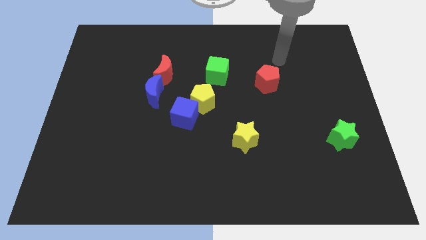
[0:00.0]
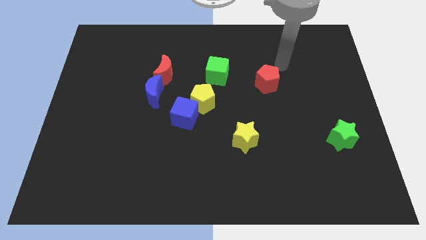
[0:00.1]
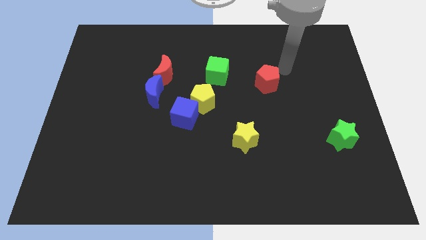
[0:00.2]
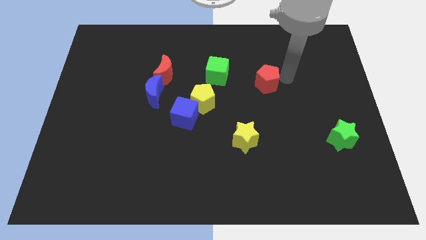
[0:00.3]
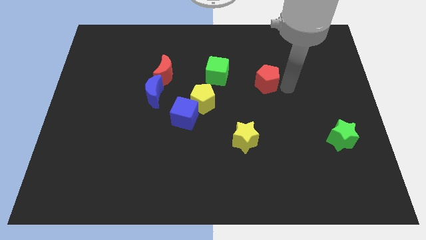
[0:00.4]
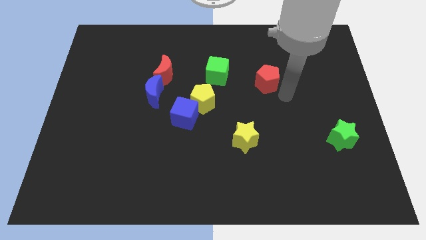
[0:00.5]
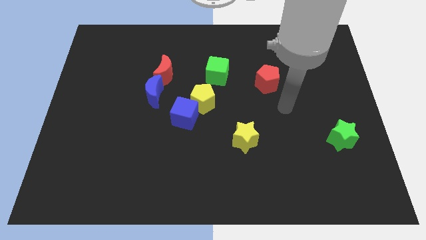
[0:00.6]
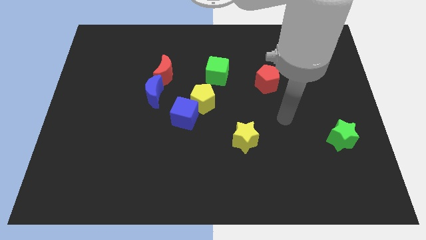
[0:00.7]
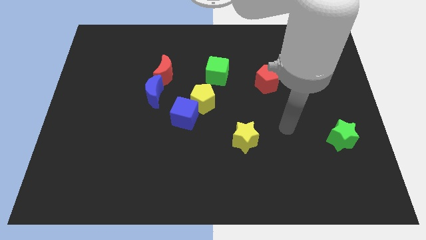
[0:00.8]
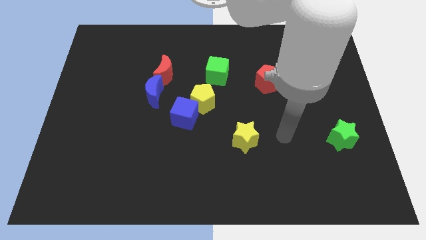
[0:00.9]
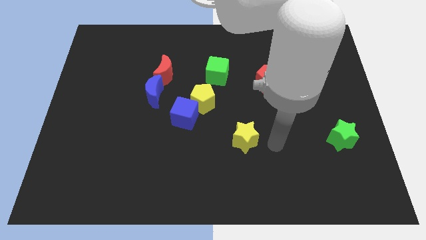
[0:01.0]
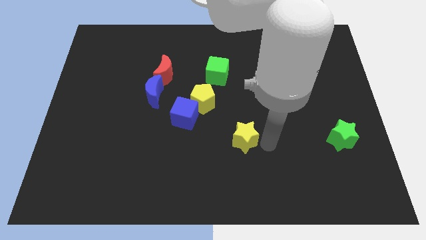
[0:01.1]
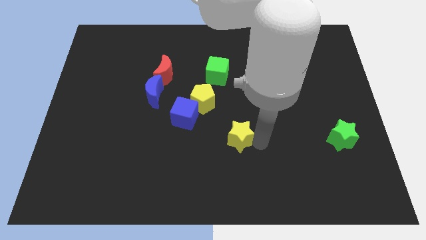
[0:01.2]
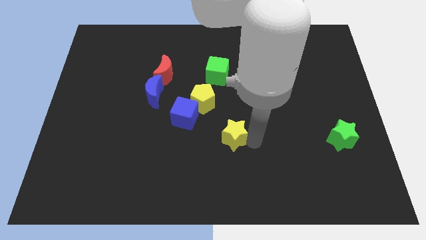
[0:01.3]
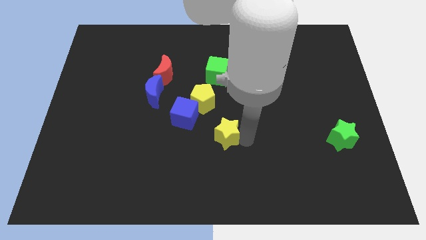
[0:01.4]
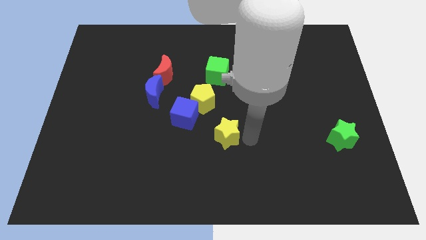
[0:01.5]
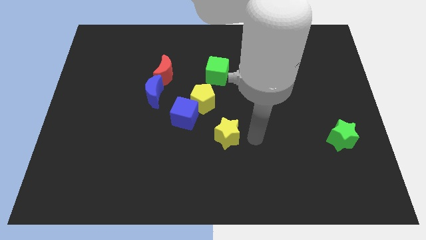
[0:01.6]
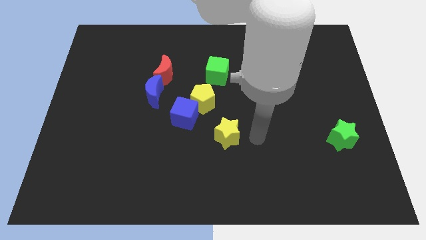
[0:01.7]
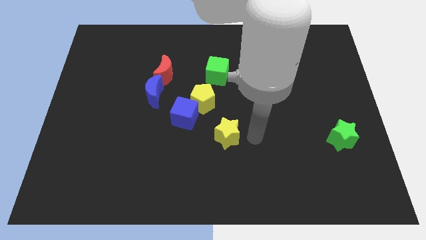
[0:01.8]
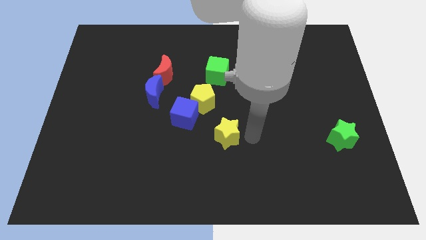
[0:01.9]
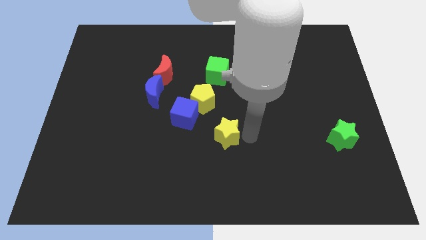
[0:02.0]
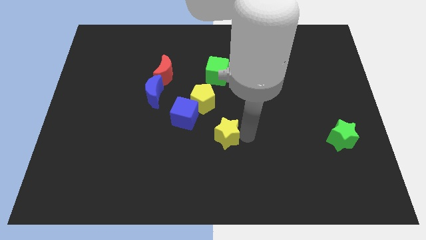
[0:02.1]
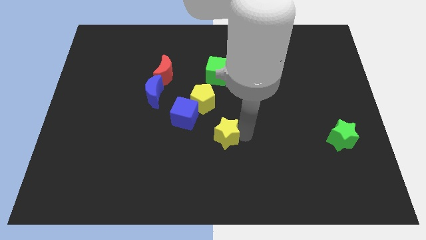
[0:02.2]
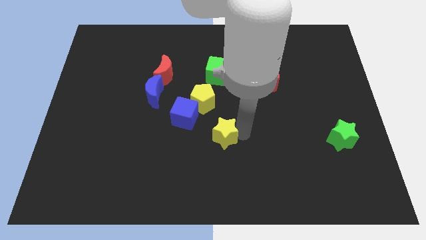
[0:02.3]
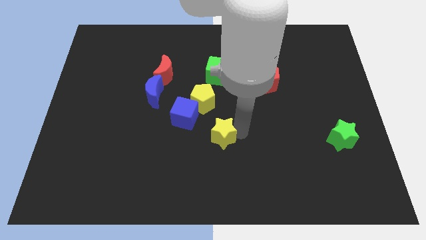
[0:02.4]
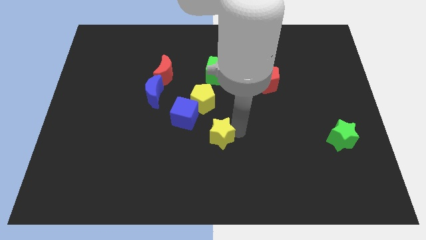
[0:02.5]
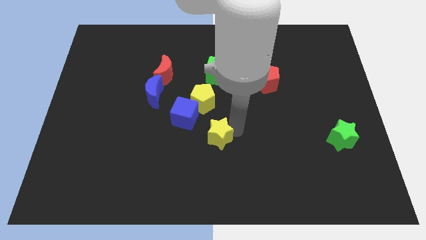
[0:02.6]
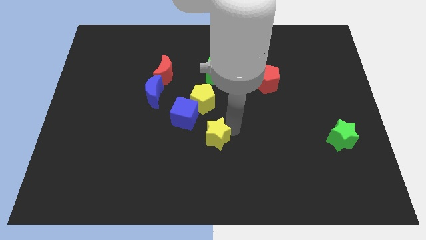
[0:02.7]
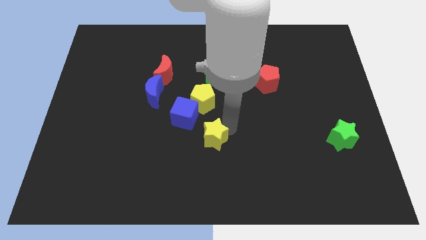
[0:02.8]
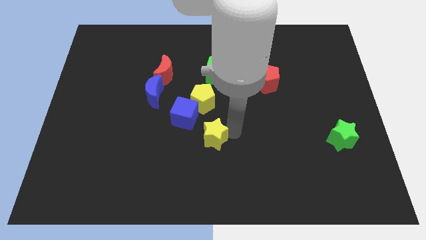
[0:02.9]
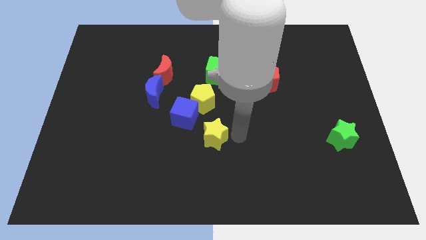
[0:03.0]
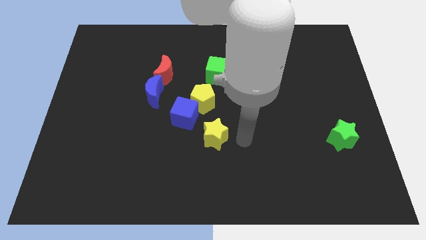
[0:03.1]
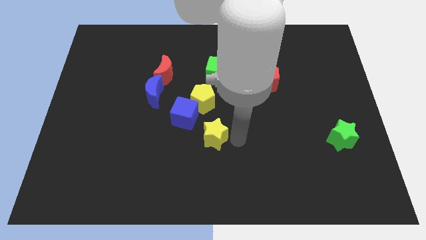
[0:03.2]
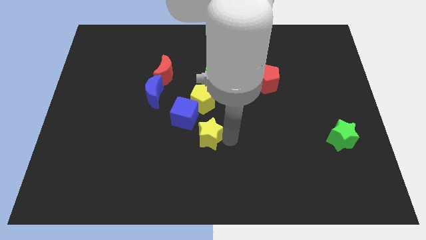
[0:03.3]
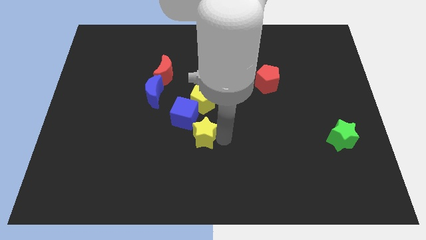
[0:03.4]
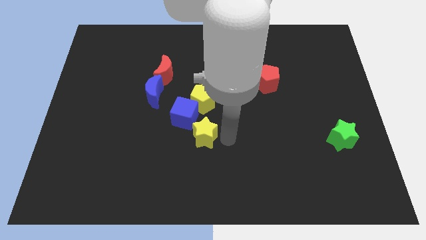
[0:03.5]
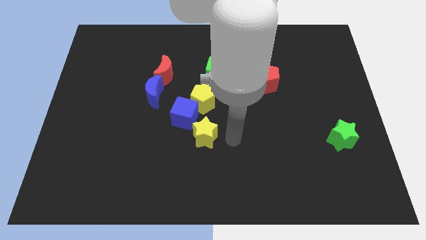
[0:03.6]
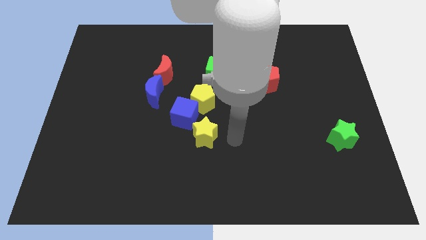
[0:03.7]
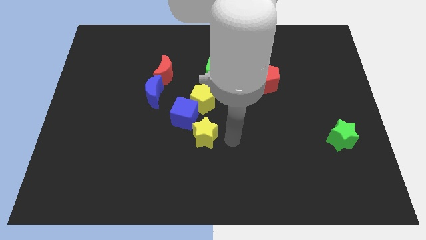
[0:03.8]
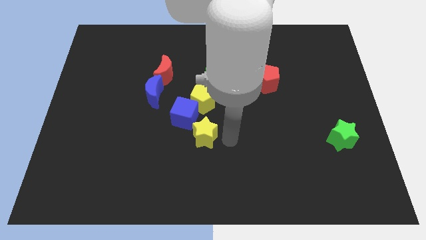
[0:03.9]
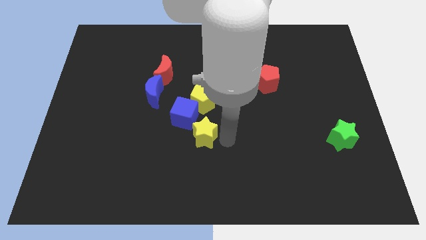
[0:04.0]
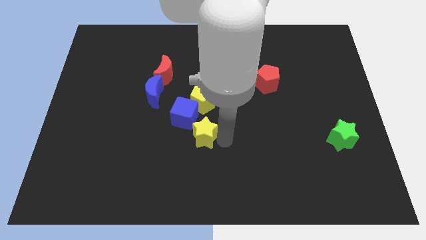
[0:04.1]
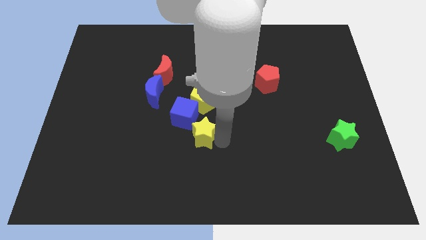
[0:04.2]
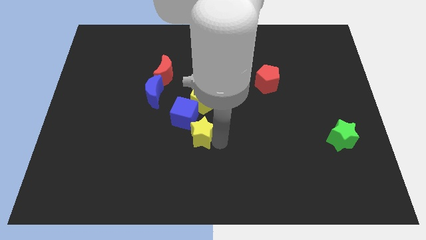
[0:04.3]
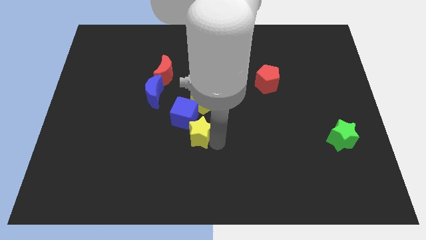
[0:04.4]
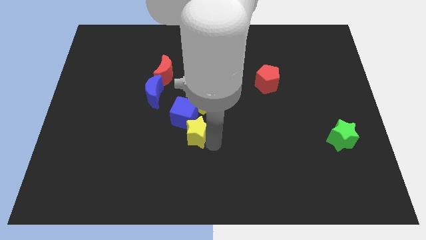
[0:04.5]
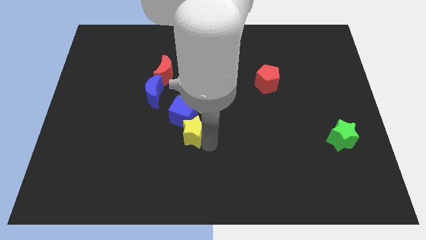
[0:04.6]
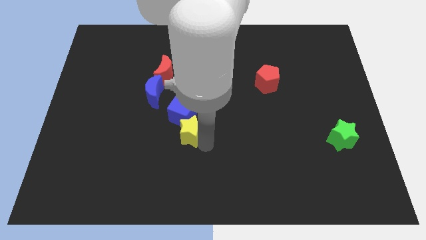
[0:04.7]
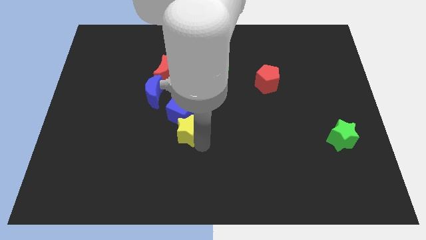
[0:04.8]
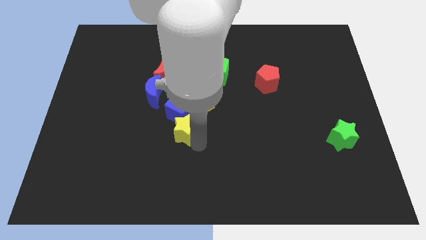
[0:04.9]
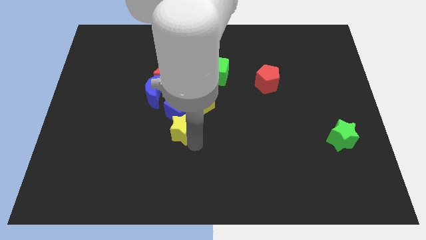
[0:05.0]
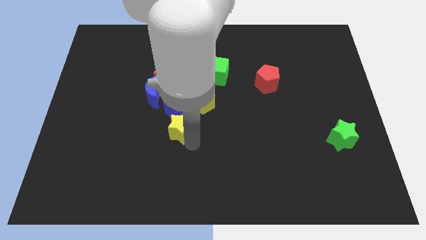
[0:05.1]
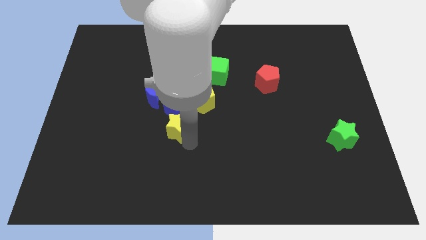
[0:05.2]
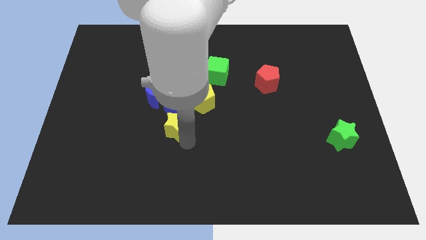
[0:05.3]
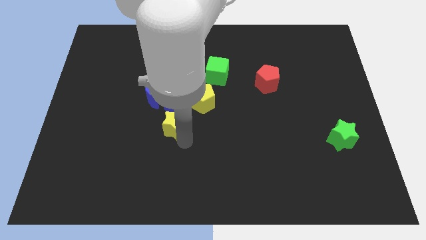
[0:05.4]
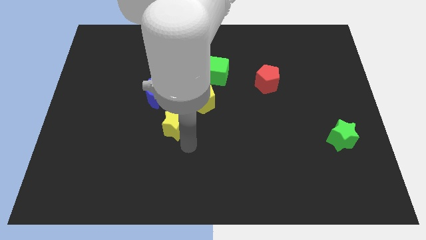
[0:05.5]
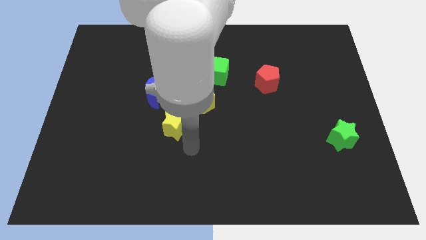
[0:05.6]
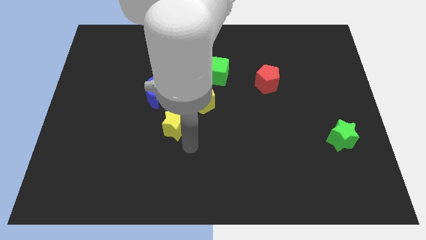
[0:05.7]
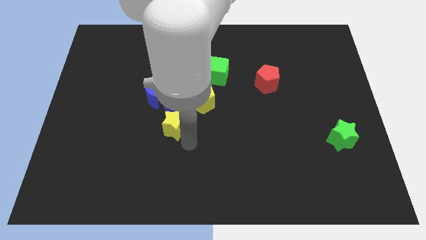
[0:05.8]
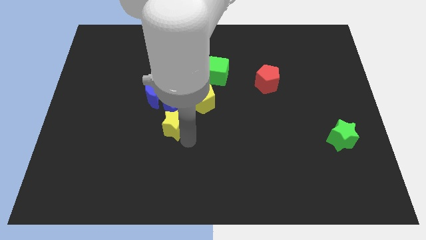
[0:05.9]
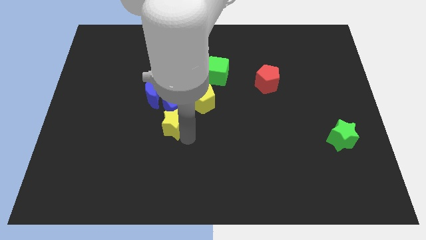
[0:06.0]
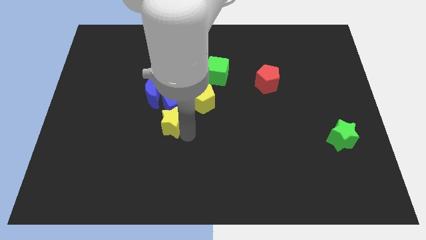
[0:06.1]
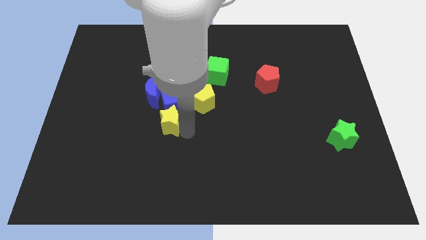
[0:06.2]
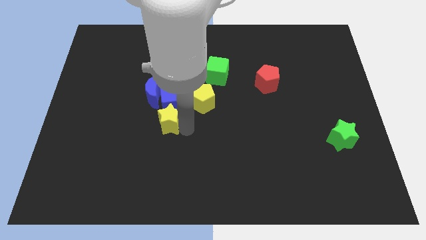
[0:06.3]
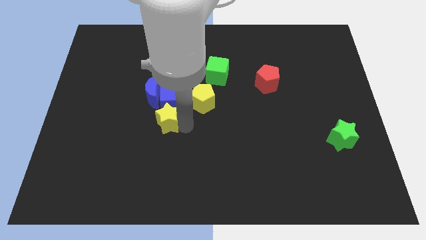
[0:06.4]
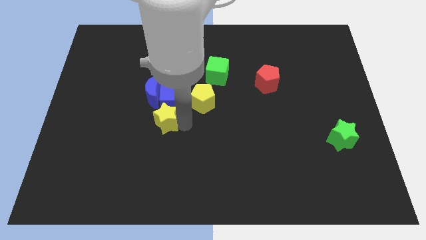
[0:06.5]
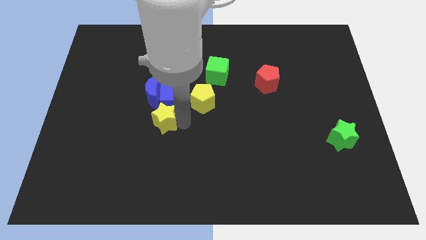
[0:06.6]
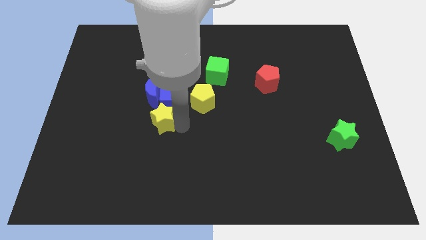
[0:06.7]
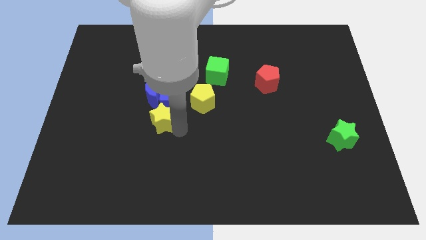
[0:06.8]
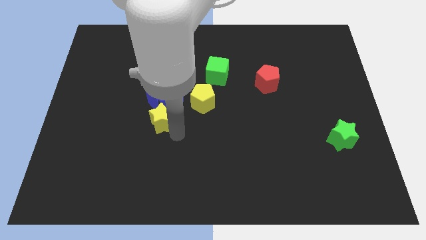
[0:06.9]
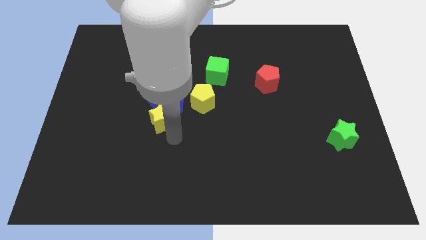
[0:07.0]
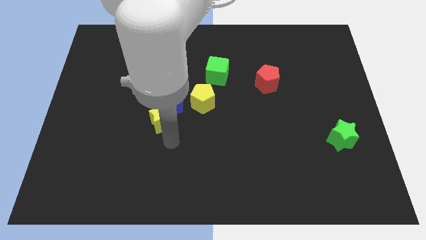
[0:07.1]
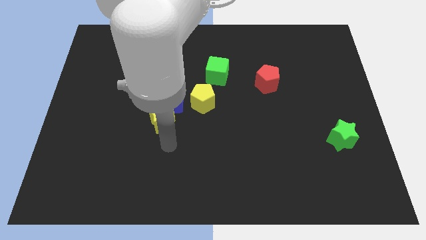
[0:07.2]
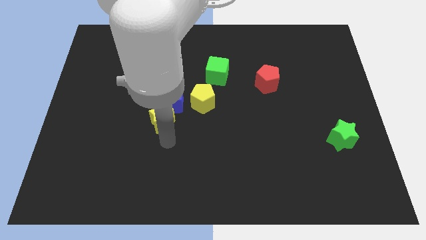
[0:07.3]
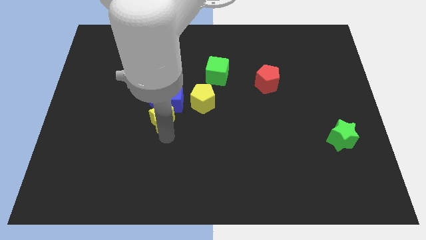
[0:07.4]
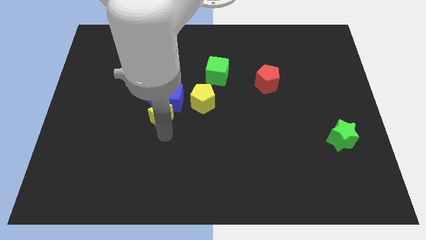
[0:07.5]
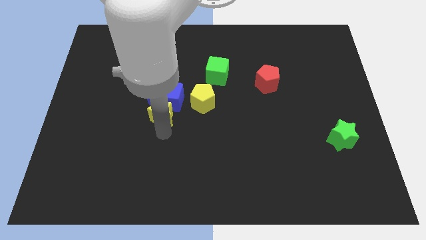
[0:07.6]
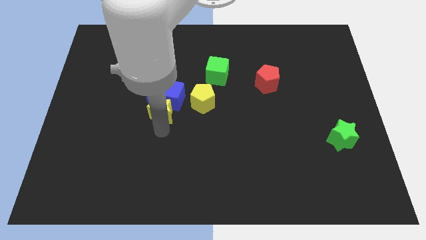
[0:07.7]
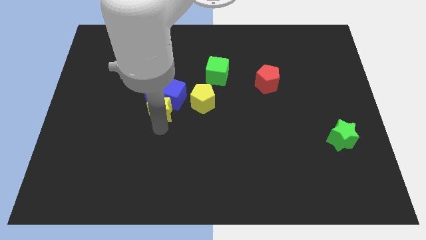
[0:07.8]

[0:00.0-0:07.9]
put the yellow star close to the blue moon
